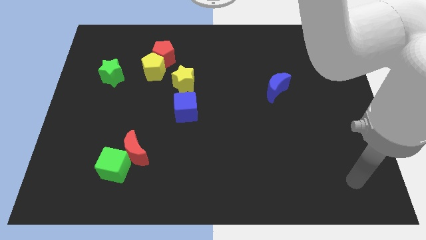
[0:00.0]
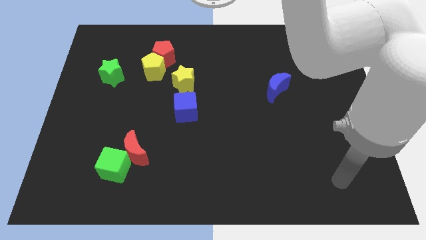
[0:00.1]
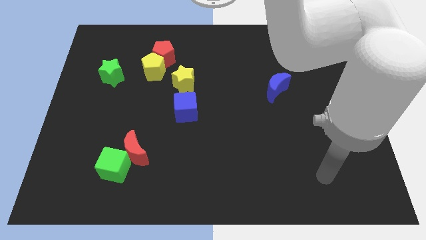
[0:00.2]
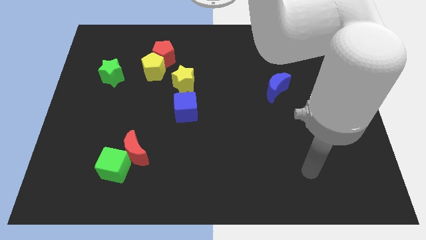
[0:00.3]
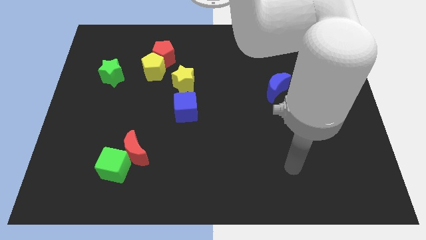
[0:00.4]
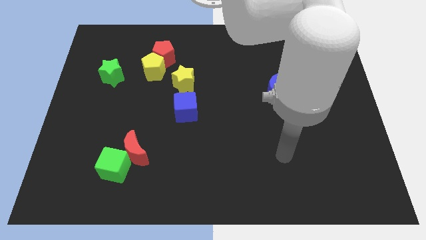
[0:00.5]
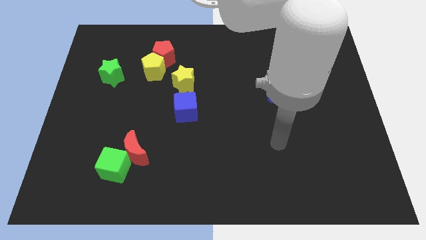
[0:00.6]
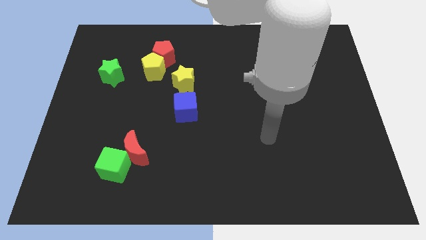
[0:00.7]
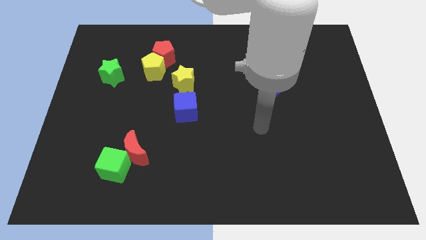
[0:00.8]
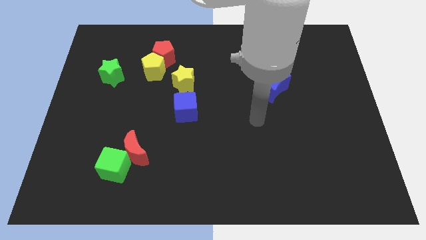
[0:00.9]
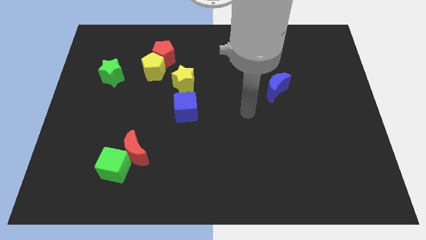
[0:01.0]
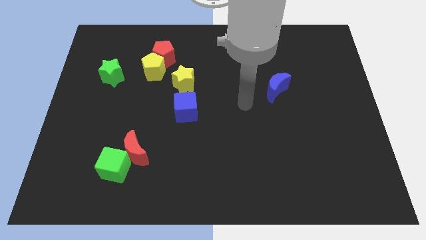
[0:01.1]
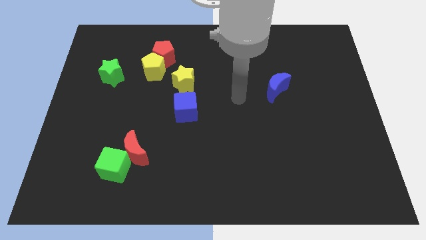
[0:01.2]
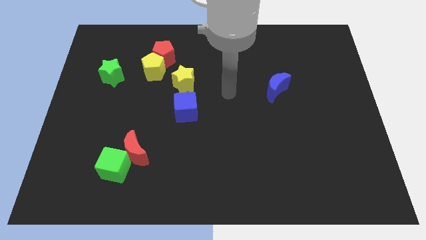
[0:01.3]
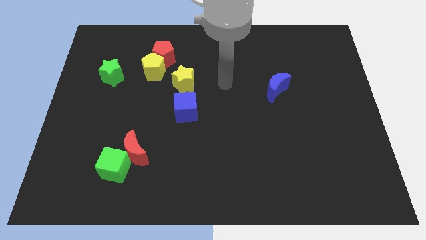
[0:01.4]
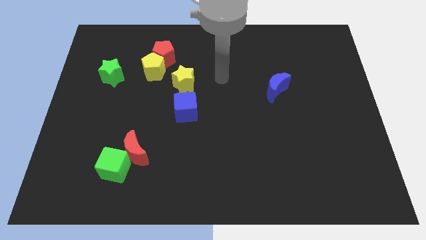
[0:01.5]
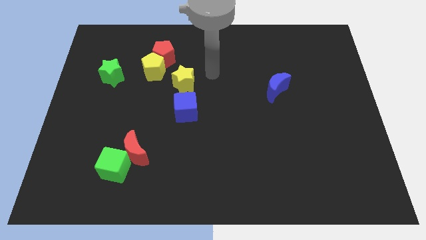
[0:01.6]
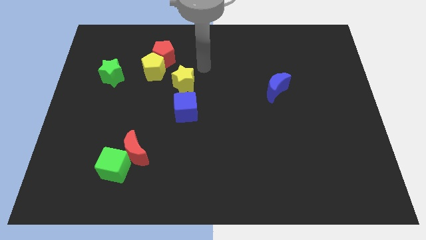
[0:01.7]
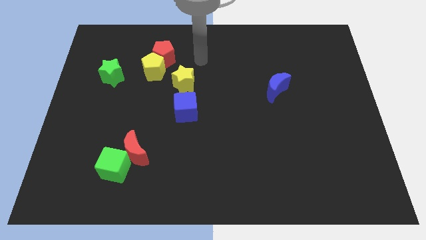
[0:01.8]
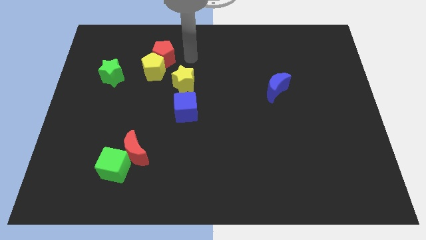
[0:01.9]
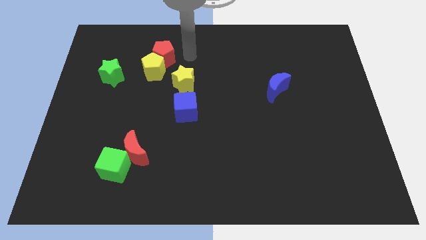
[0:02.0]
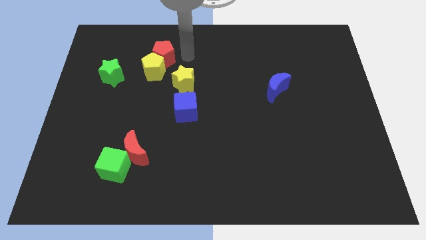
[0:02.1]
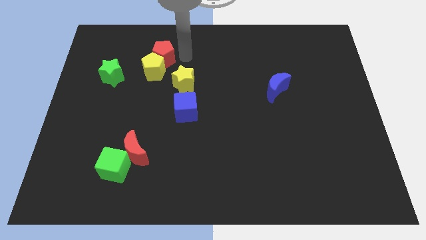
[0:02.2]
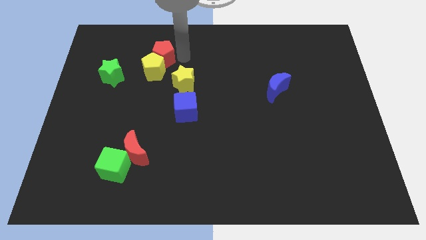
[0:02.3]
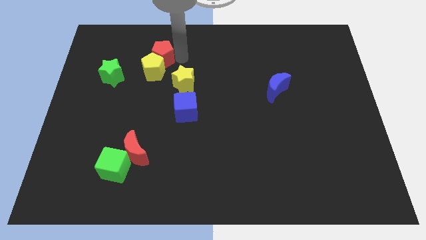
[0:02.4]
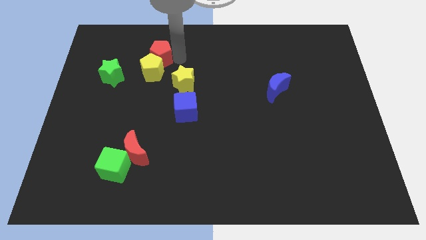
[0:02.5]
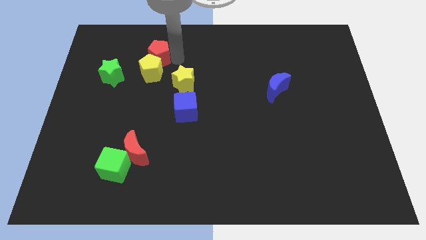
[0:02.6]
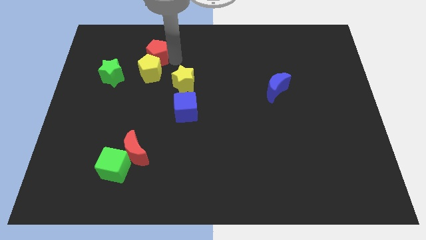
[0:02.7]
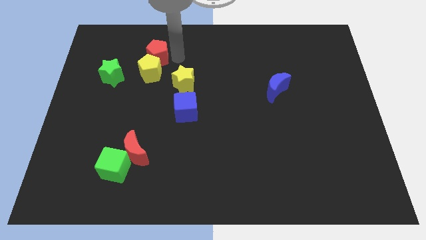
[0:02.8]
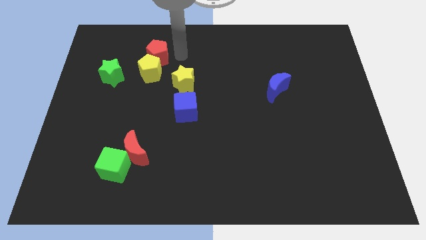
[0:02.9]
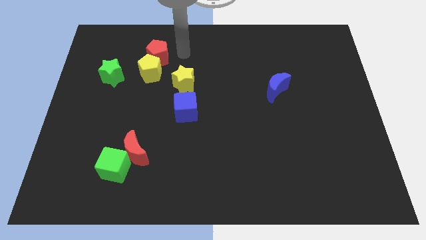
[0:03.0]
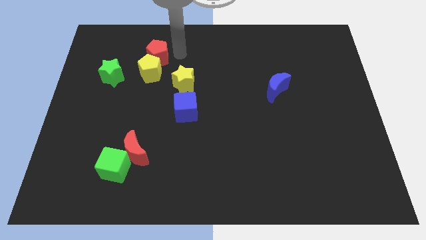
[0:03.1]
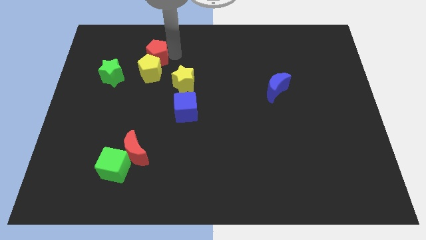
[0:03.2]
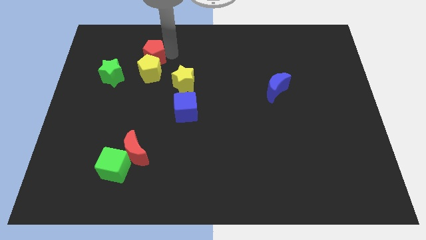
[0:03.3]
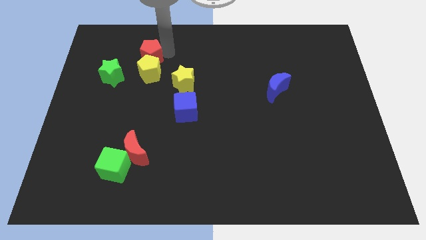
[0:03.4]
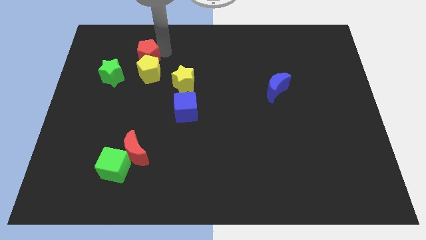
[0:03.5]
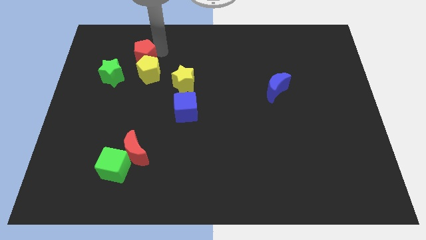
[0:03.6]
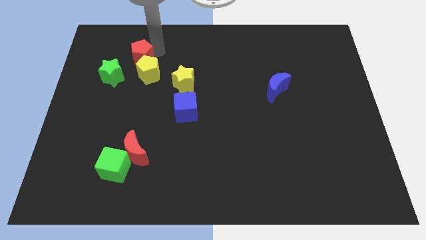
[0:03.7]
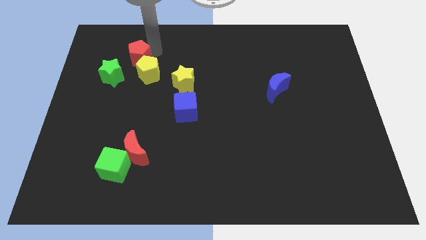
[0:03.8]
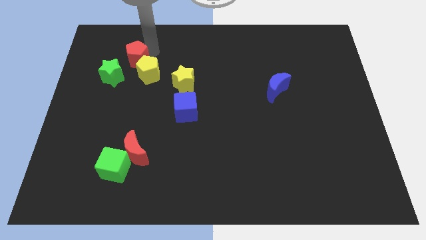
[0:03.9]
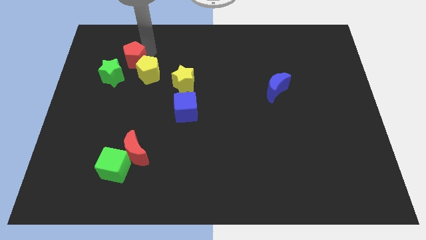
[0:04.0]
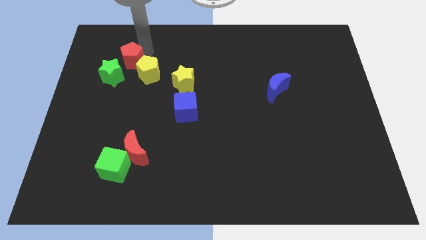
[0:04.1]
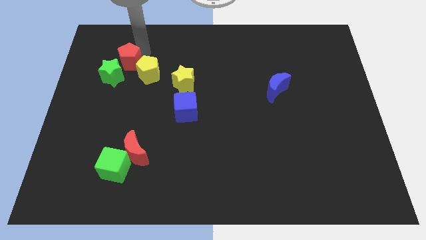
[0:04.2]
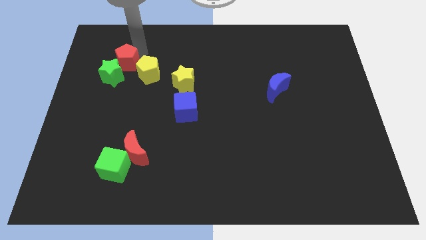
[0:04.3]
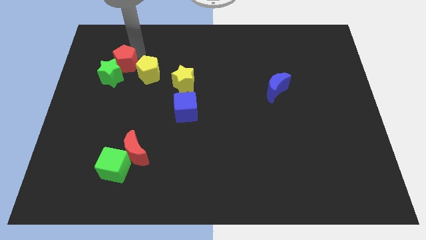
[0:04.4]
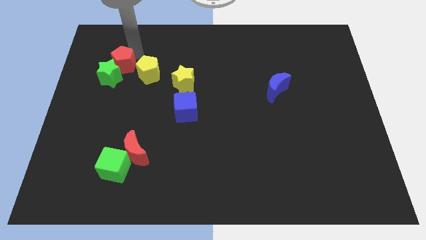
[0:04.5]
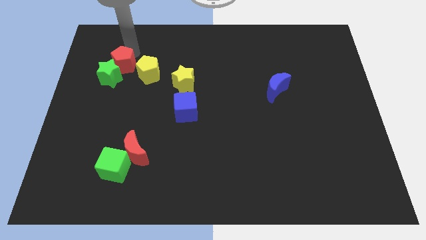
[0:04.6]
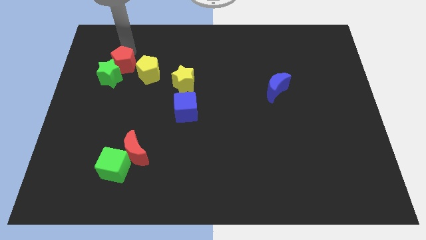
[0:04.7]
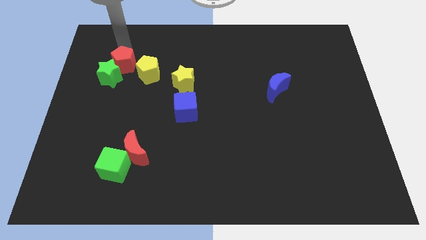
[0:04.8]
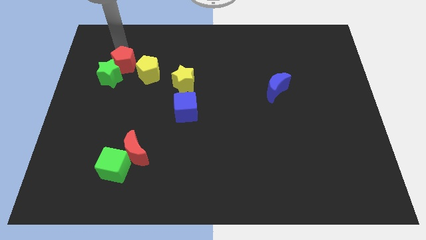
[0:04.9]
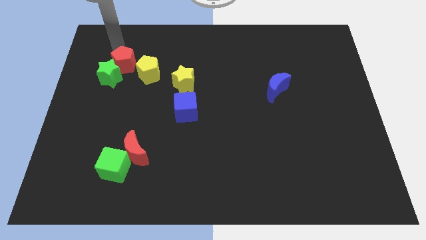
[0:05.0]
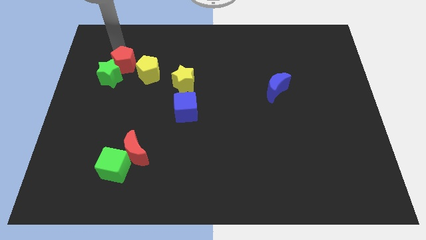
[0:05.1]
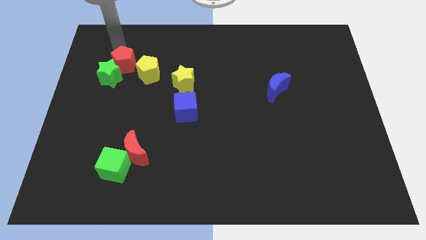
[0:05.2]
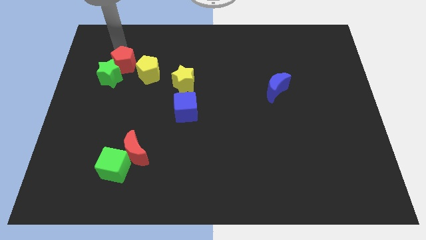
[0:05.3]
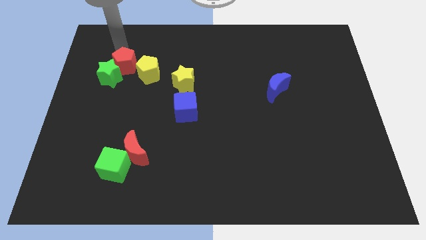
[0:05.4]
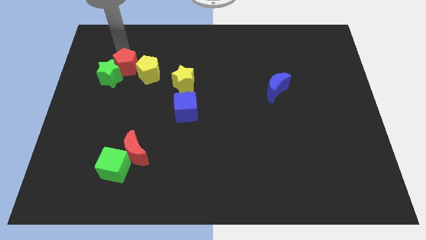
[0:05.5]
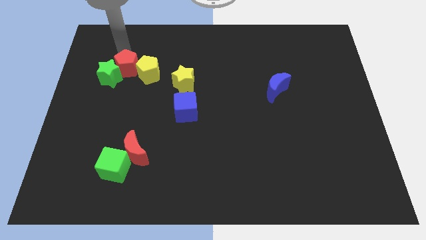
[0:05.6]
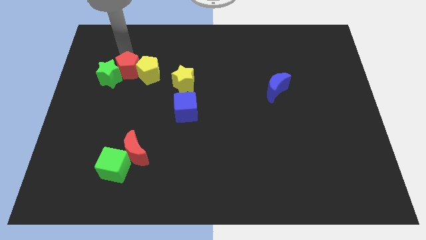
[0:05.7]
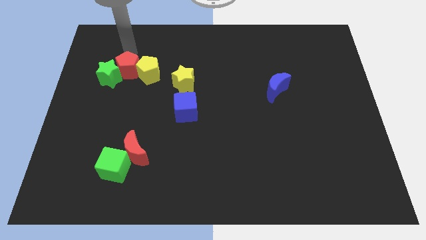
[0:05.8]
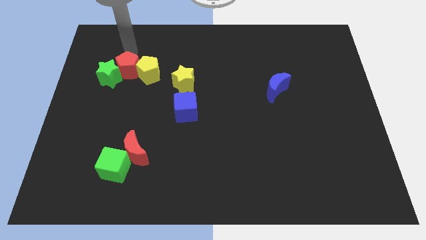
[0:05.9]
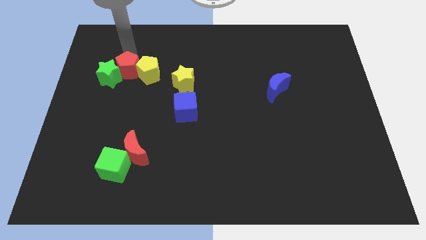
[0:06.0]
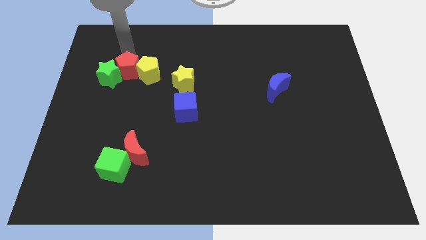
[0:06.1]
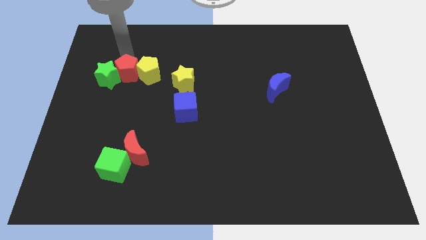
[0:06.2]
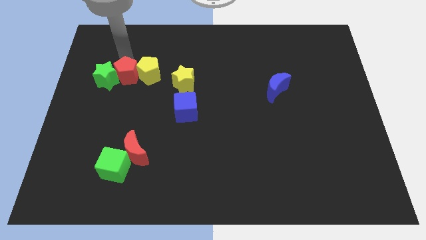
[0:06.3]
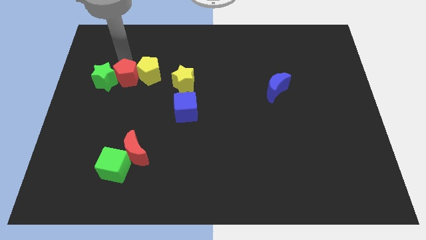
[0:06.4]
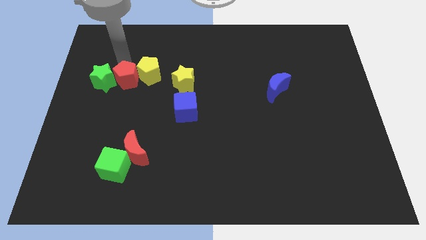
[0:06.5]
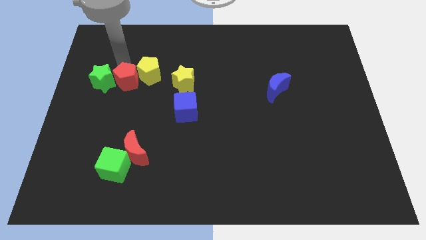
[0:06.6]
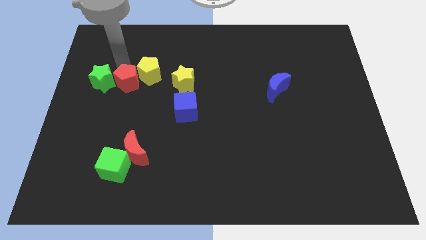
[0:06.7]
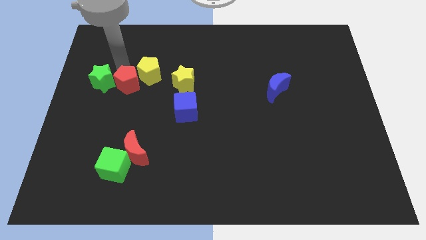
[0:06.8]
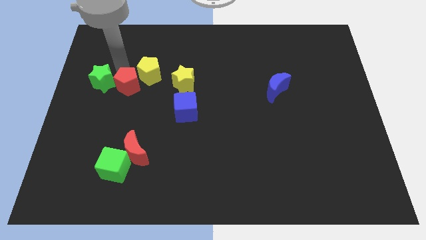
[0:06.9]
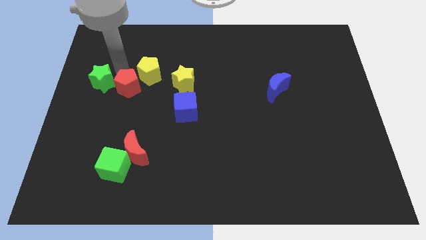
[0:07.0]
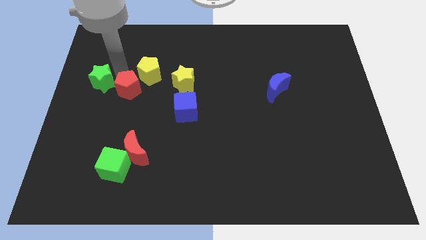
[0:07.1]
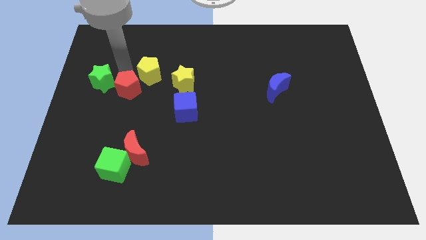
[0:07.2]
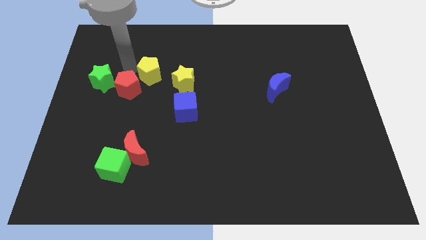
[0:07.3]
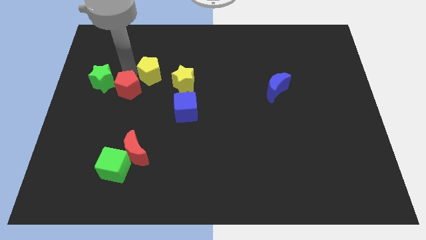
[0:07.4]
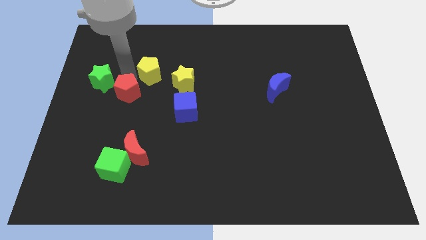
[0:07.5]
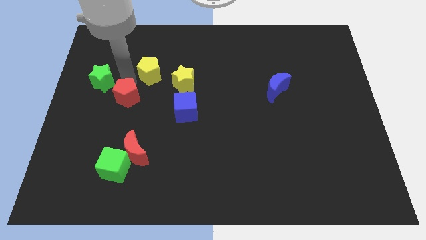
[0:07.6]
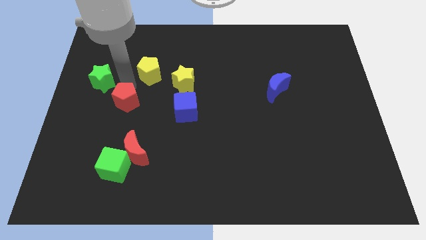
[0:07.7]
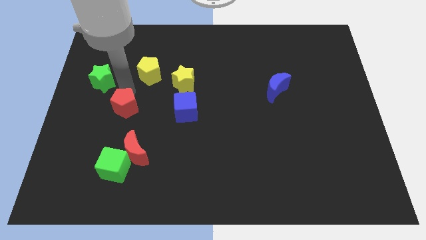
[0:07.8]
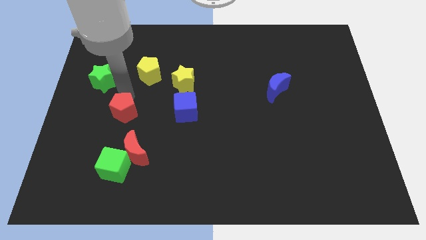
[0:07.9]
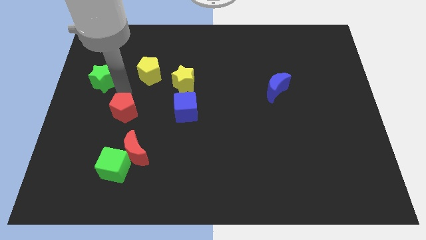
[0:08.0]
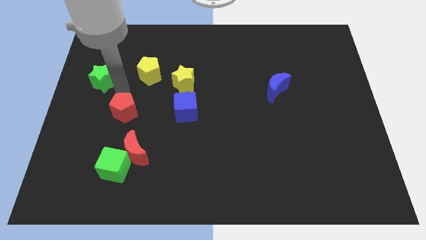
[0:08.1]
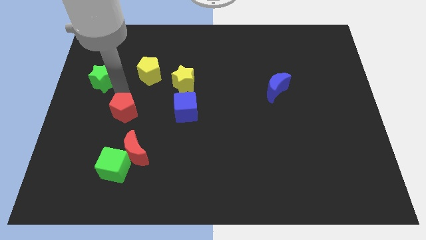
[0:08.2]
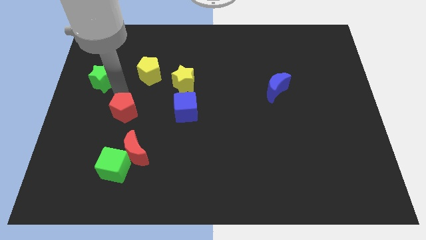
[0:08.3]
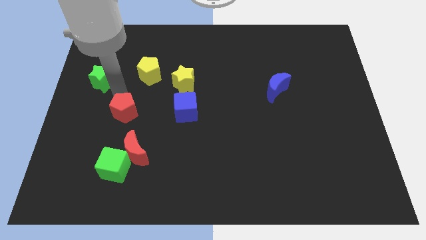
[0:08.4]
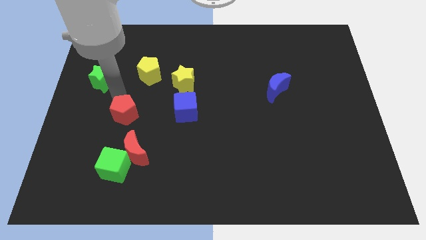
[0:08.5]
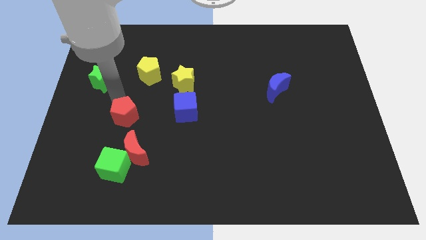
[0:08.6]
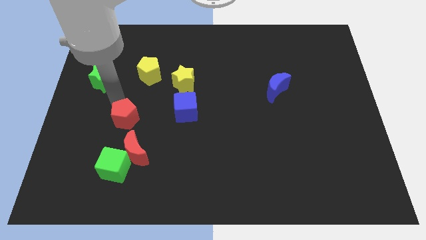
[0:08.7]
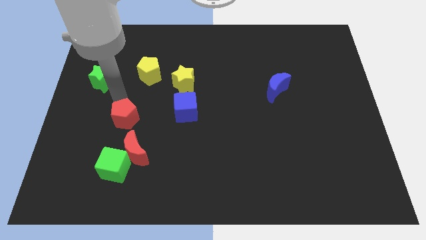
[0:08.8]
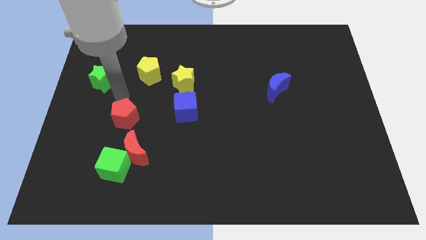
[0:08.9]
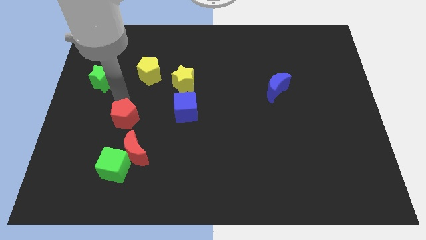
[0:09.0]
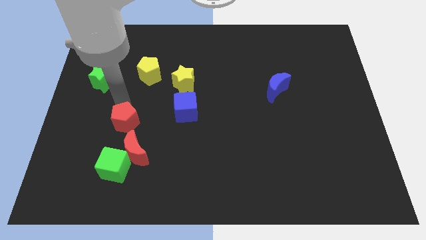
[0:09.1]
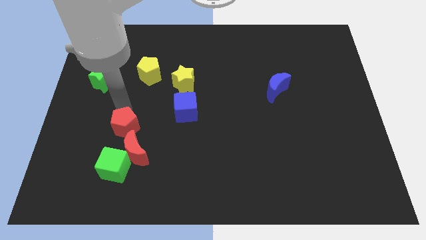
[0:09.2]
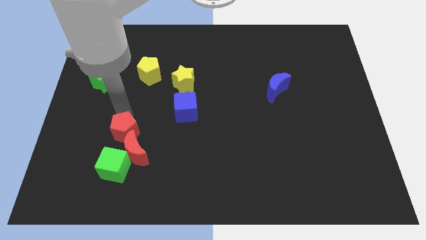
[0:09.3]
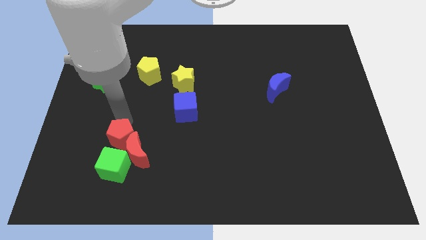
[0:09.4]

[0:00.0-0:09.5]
slide the red pentagon to the red moon
